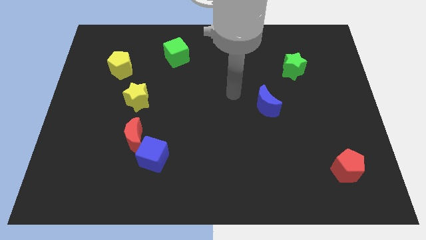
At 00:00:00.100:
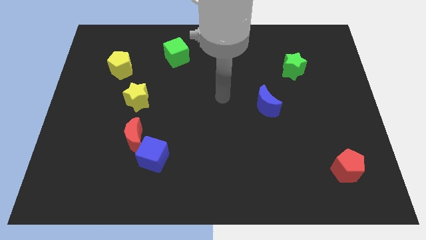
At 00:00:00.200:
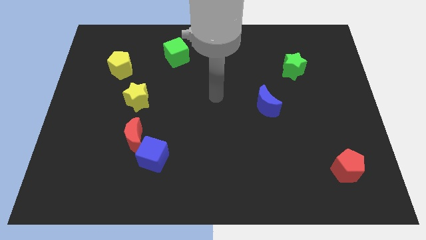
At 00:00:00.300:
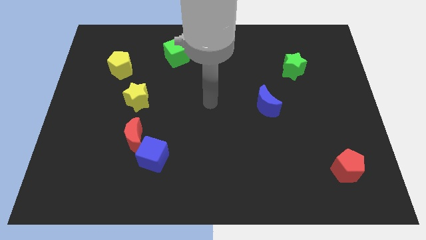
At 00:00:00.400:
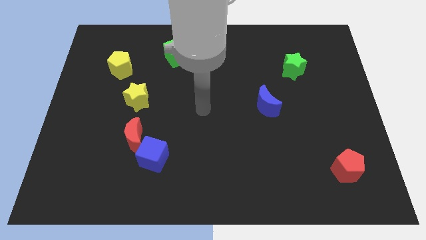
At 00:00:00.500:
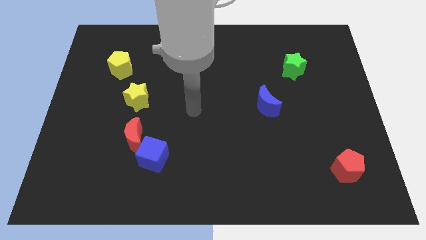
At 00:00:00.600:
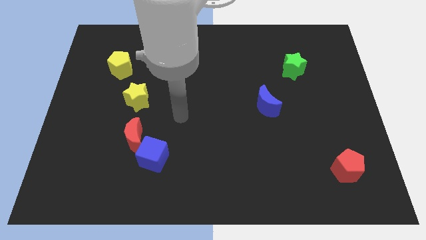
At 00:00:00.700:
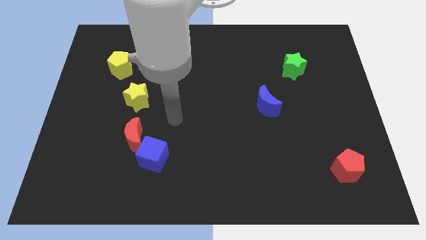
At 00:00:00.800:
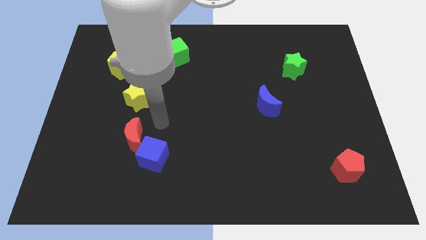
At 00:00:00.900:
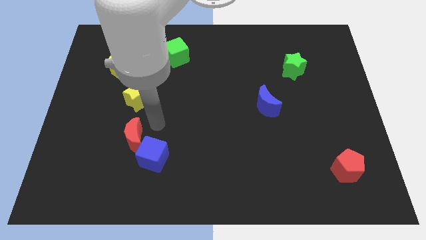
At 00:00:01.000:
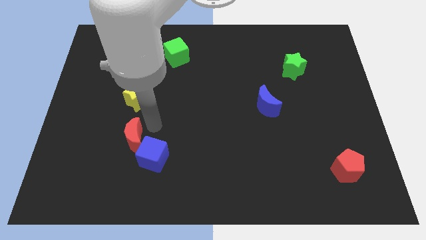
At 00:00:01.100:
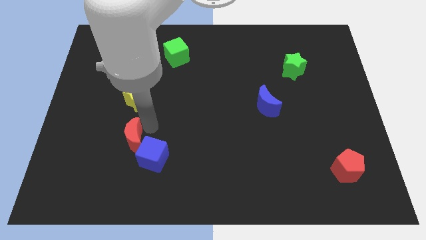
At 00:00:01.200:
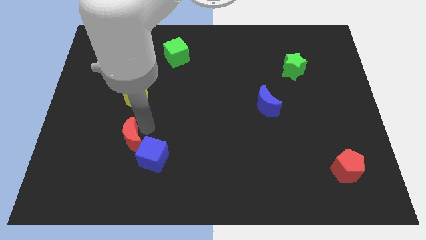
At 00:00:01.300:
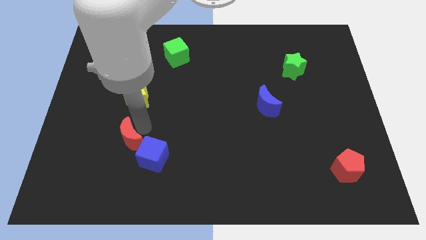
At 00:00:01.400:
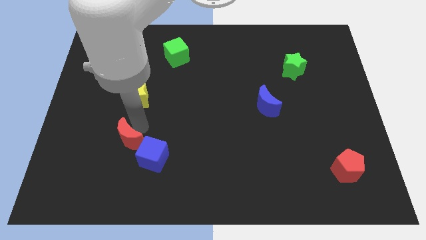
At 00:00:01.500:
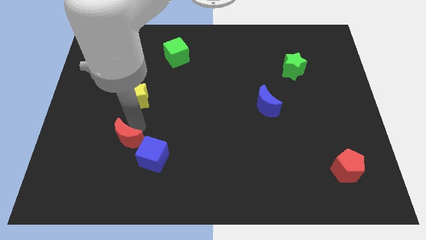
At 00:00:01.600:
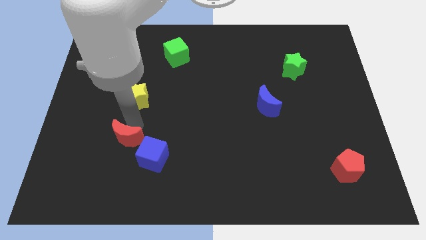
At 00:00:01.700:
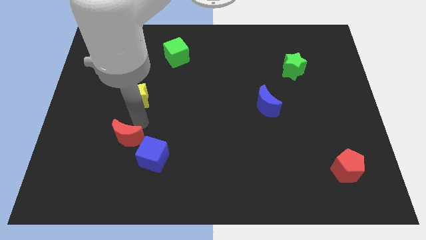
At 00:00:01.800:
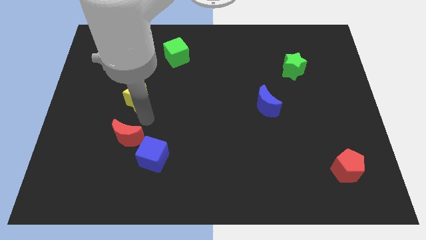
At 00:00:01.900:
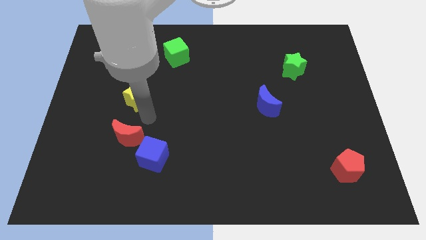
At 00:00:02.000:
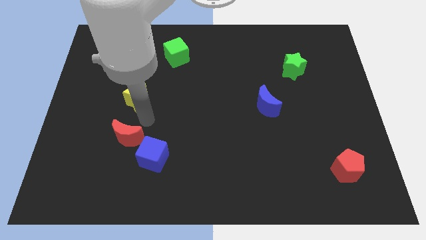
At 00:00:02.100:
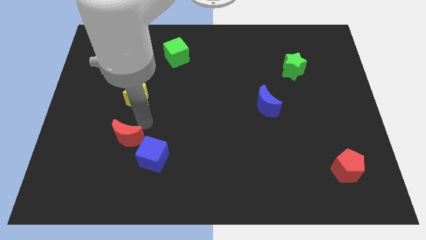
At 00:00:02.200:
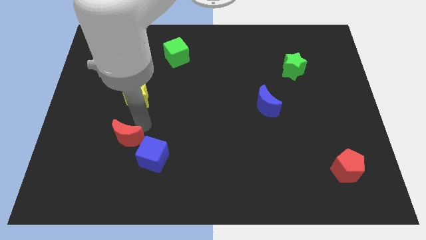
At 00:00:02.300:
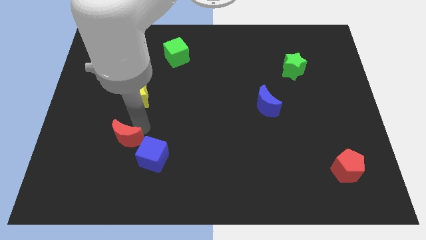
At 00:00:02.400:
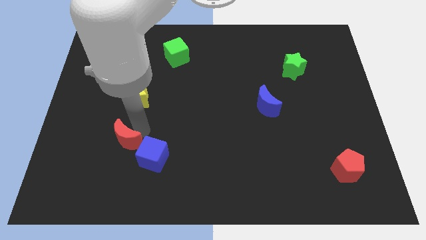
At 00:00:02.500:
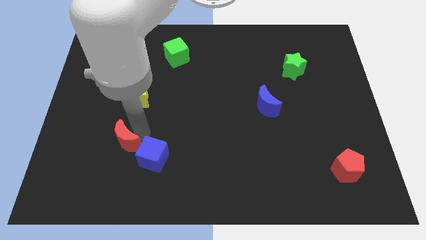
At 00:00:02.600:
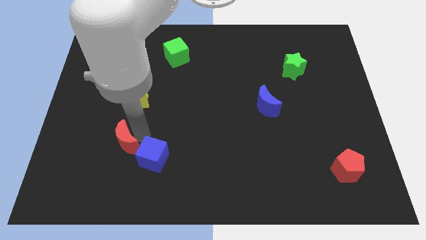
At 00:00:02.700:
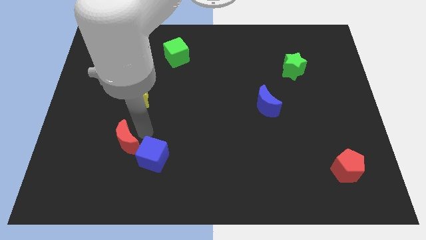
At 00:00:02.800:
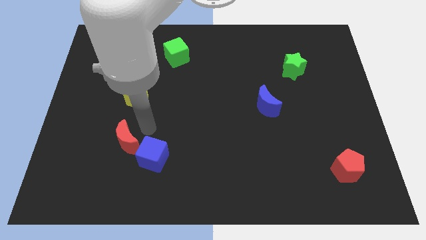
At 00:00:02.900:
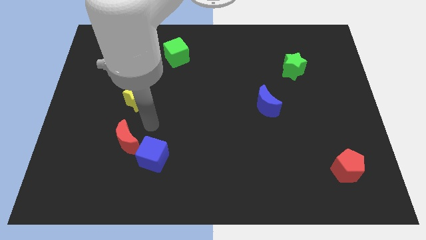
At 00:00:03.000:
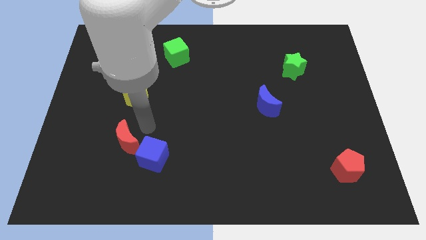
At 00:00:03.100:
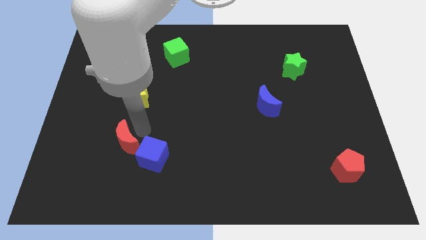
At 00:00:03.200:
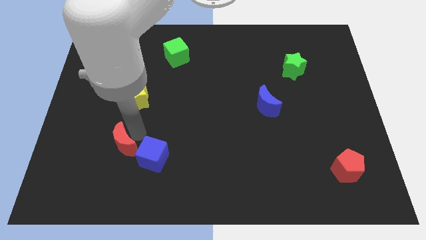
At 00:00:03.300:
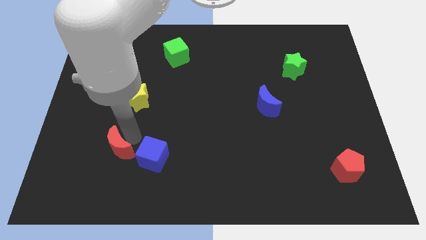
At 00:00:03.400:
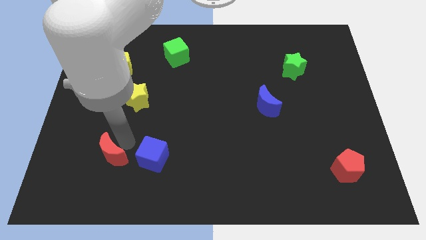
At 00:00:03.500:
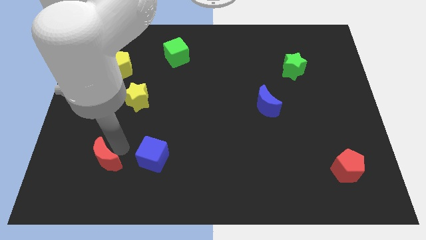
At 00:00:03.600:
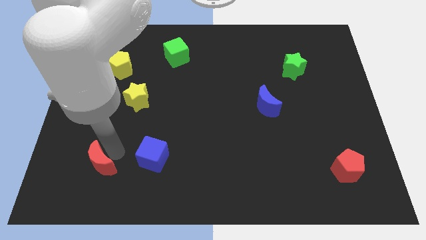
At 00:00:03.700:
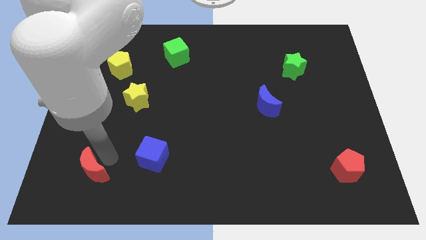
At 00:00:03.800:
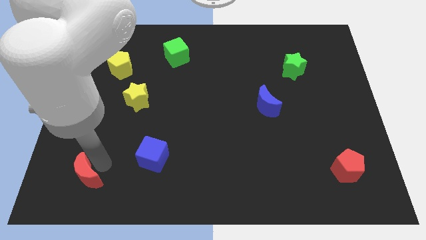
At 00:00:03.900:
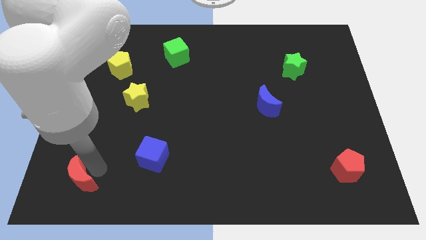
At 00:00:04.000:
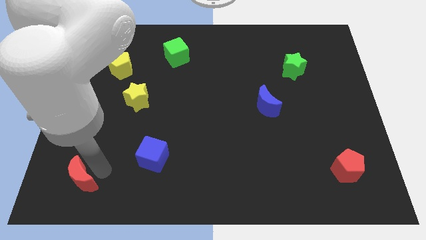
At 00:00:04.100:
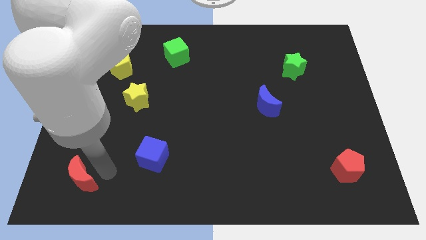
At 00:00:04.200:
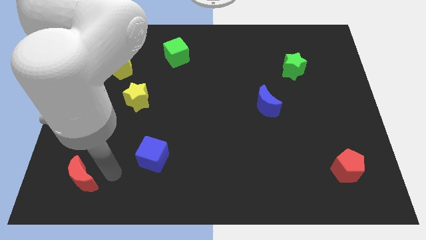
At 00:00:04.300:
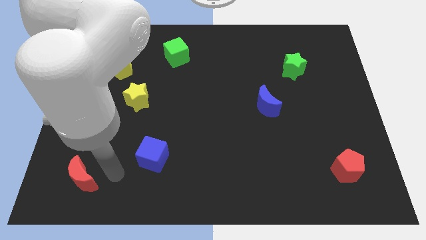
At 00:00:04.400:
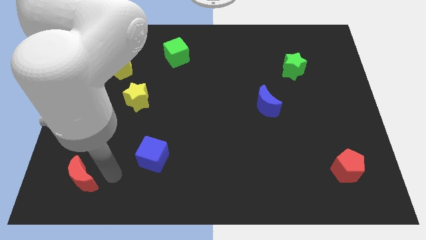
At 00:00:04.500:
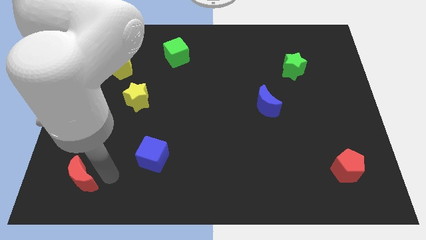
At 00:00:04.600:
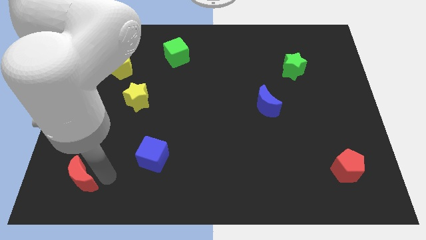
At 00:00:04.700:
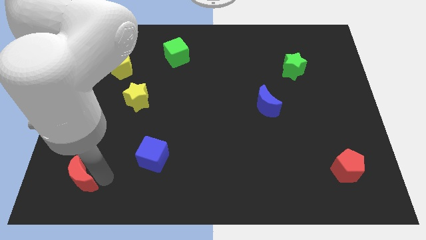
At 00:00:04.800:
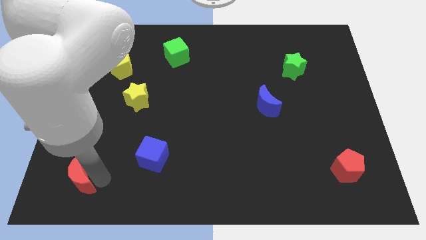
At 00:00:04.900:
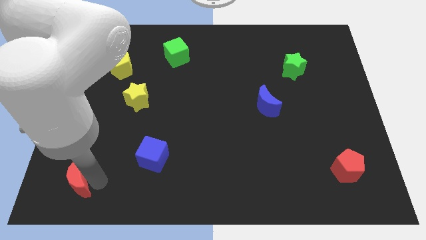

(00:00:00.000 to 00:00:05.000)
move the red moon to the bottom left of the board

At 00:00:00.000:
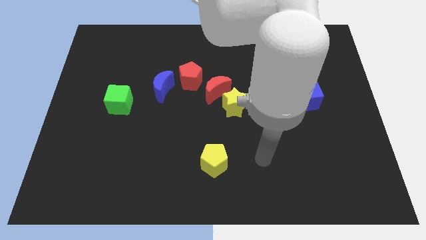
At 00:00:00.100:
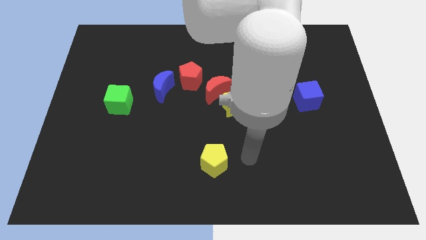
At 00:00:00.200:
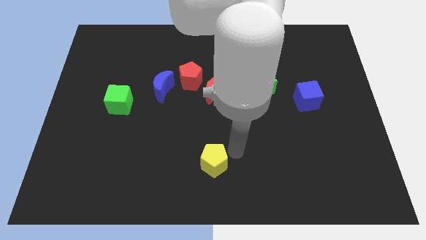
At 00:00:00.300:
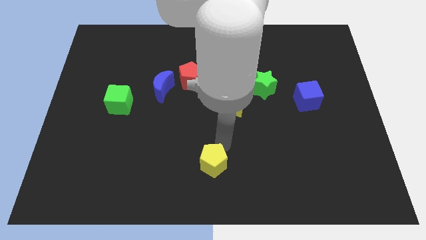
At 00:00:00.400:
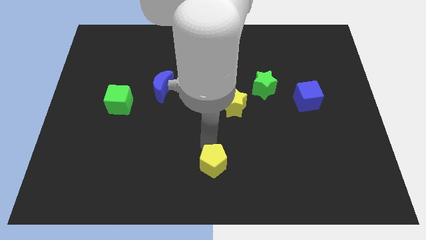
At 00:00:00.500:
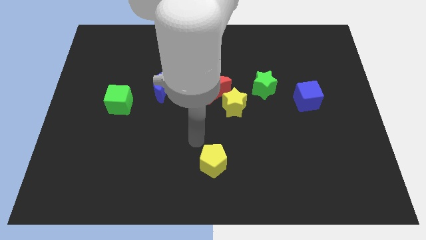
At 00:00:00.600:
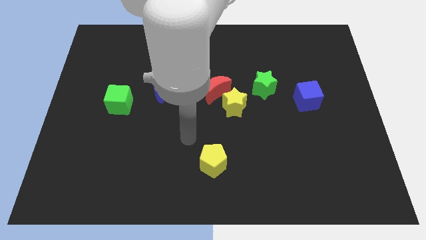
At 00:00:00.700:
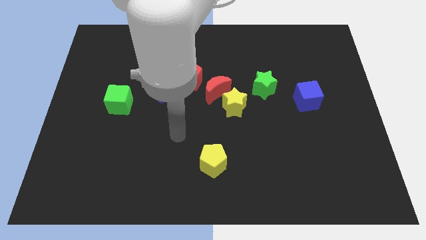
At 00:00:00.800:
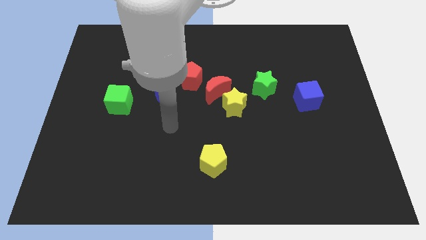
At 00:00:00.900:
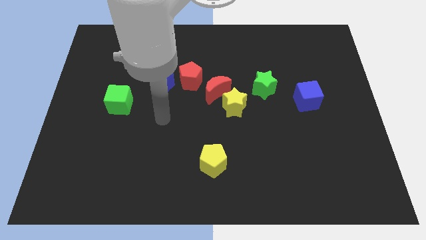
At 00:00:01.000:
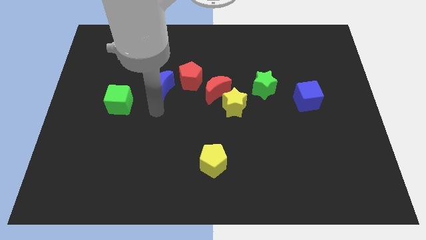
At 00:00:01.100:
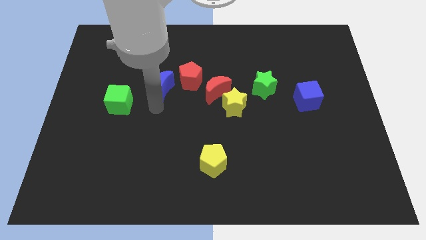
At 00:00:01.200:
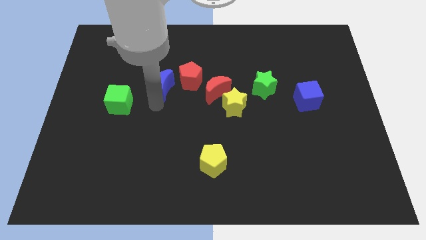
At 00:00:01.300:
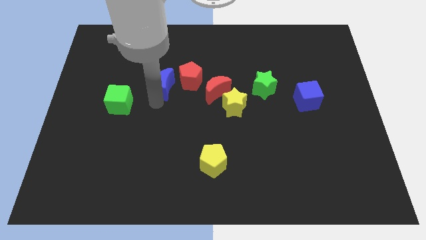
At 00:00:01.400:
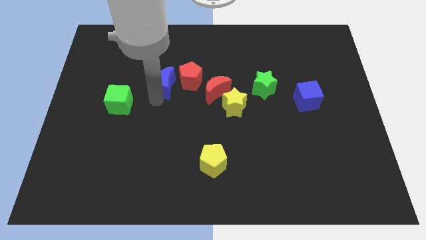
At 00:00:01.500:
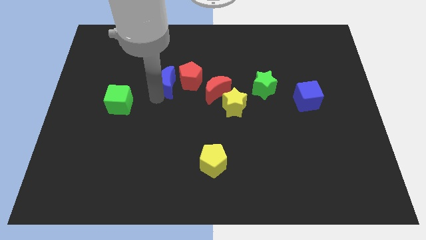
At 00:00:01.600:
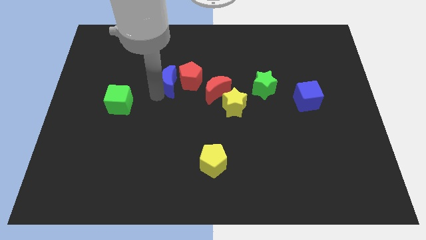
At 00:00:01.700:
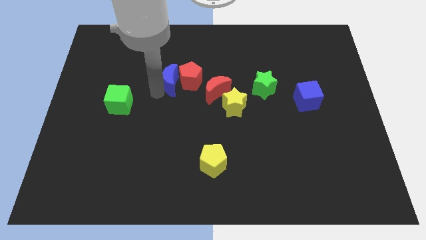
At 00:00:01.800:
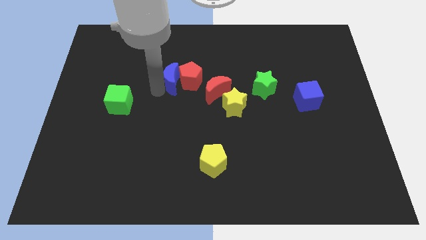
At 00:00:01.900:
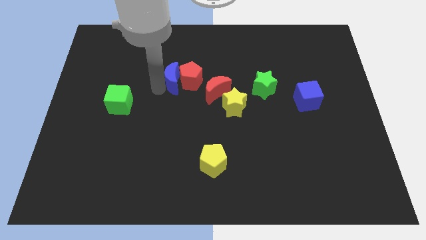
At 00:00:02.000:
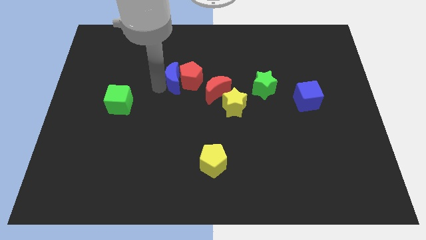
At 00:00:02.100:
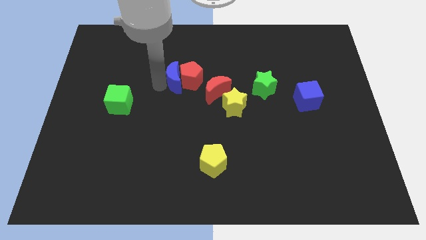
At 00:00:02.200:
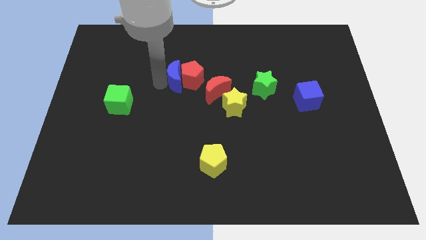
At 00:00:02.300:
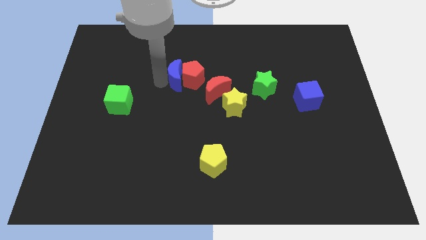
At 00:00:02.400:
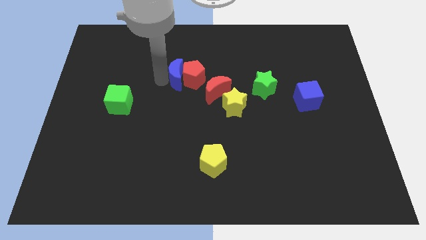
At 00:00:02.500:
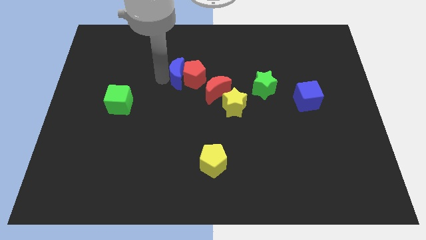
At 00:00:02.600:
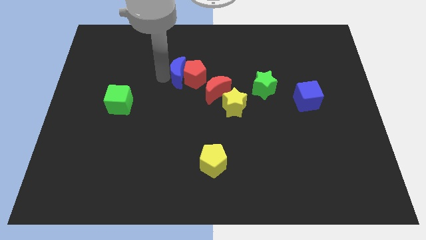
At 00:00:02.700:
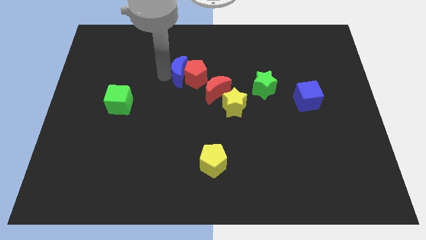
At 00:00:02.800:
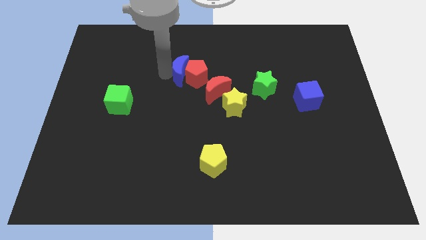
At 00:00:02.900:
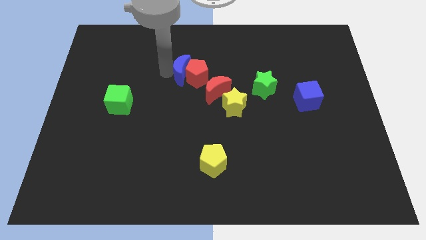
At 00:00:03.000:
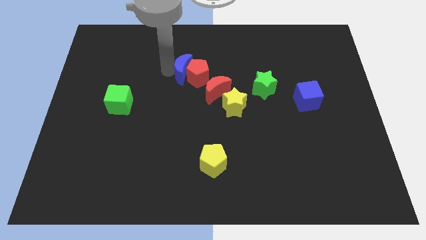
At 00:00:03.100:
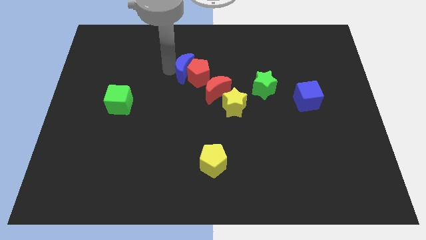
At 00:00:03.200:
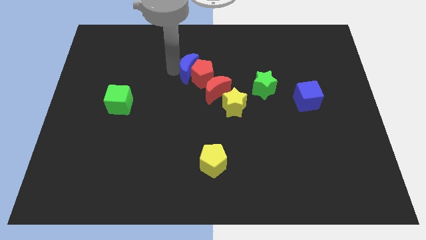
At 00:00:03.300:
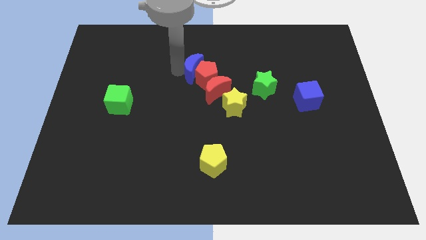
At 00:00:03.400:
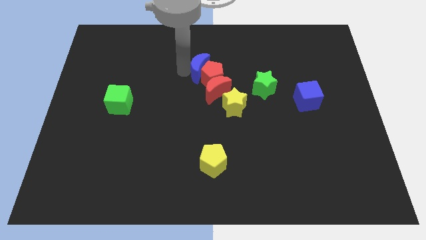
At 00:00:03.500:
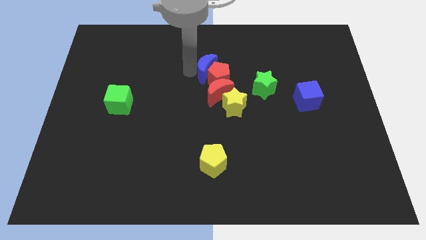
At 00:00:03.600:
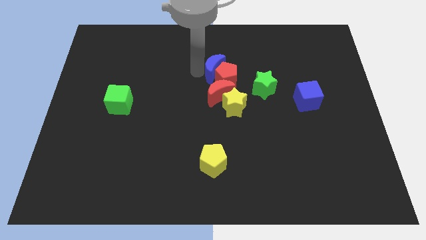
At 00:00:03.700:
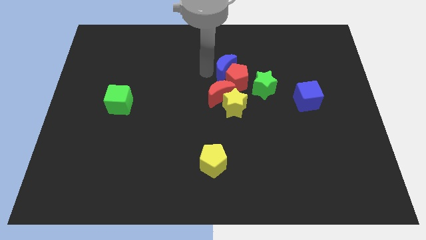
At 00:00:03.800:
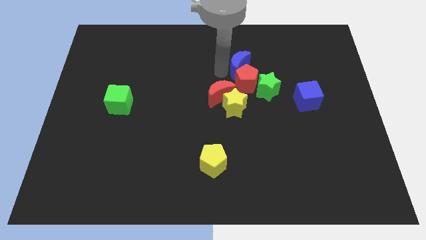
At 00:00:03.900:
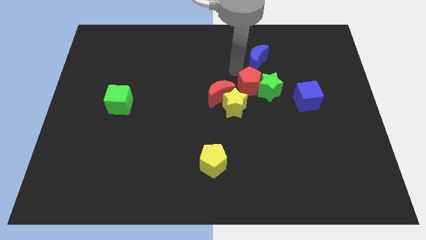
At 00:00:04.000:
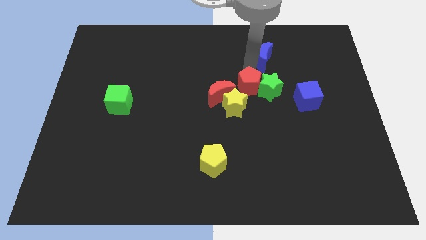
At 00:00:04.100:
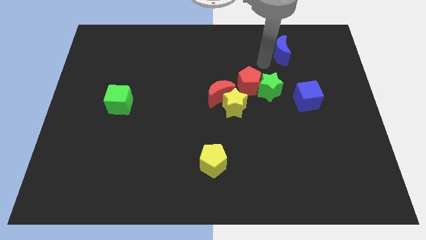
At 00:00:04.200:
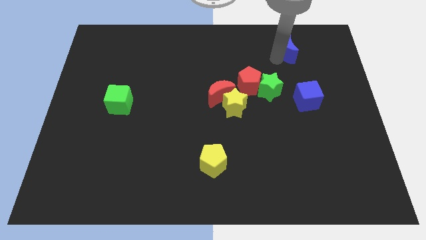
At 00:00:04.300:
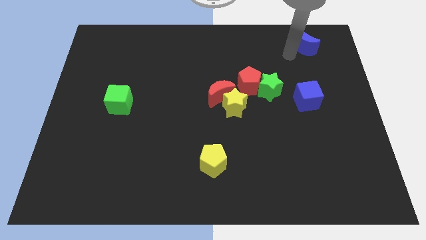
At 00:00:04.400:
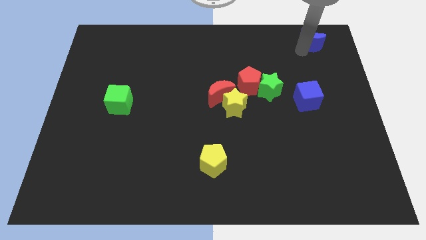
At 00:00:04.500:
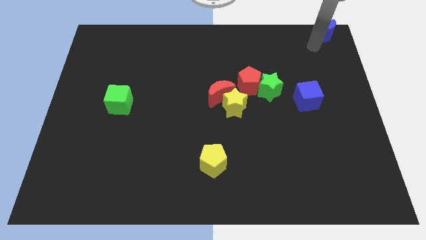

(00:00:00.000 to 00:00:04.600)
put the blue moon to the top right corner
